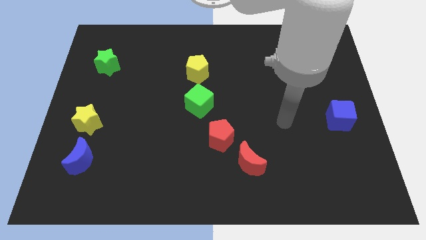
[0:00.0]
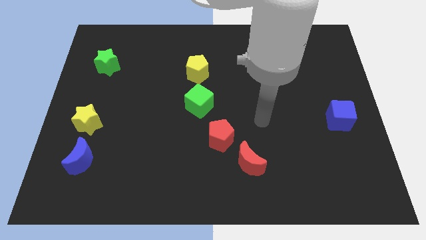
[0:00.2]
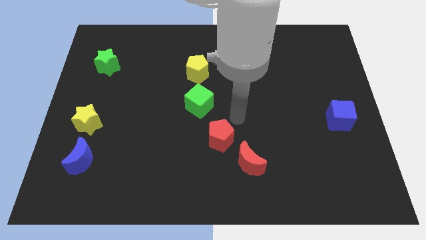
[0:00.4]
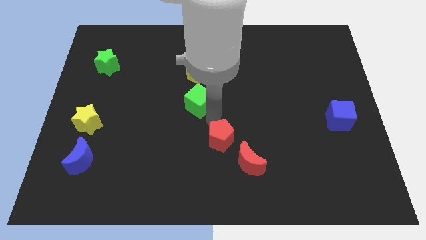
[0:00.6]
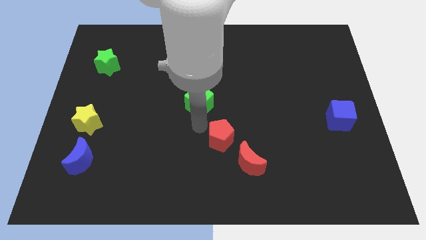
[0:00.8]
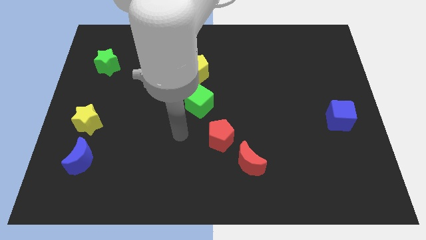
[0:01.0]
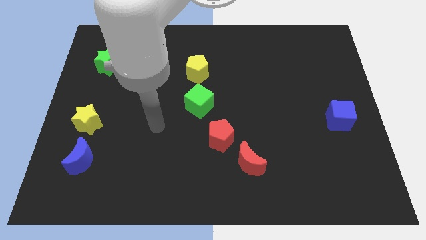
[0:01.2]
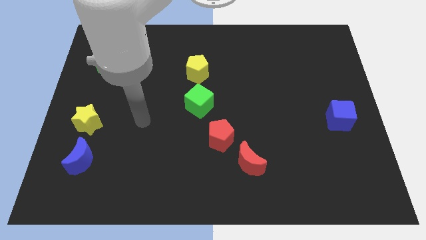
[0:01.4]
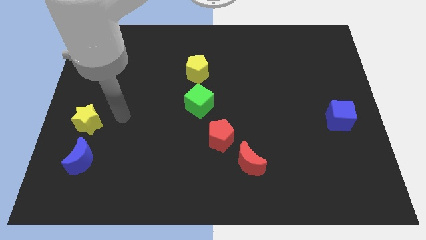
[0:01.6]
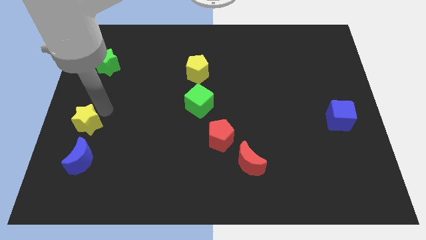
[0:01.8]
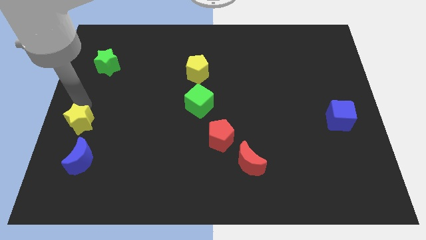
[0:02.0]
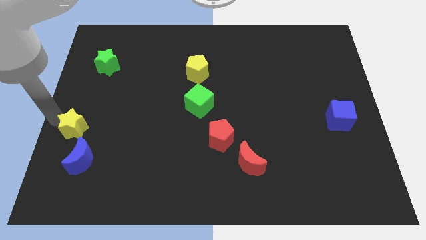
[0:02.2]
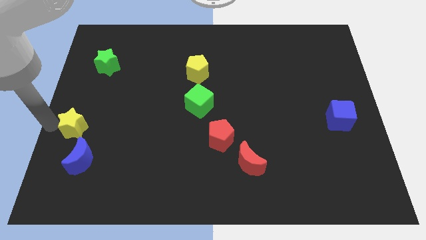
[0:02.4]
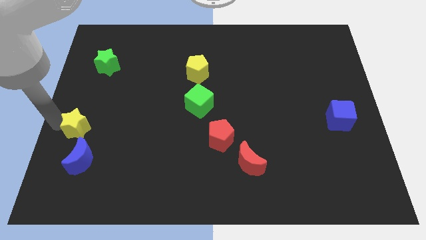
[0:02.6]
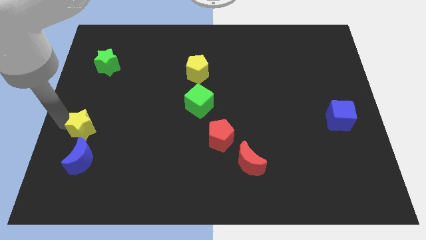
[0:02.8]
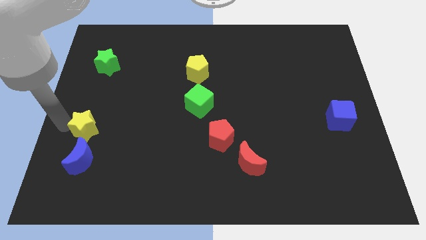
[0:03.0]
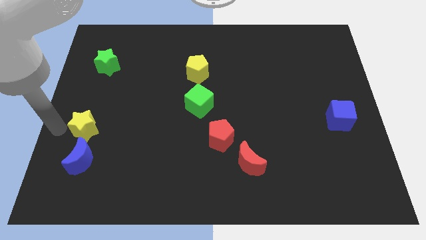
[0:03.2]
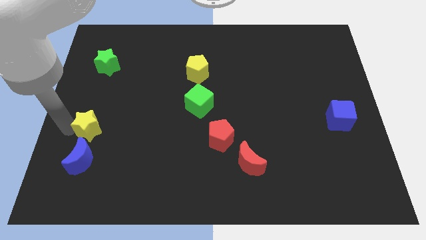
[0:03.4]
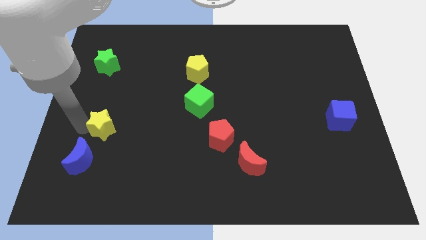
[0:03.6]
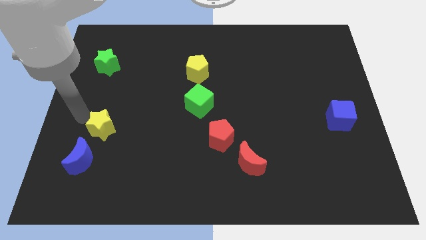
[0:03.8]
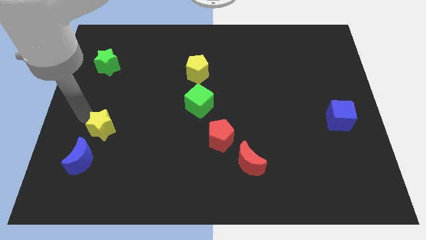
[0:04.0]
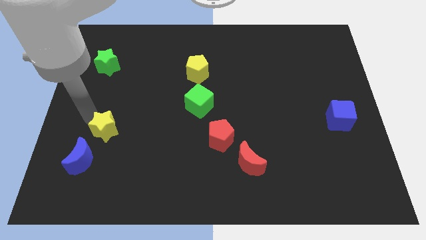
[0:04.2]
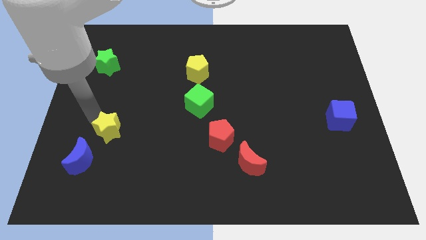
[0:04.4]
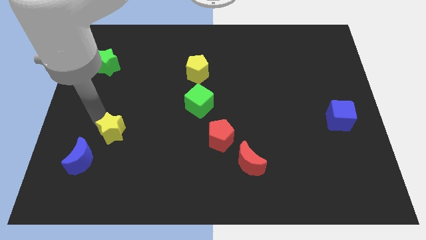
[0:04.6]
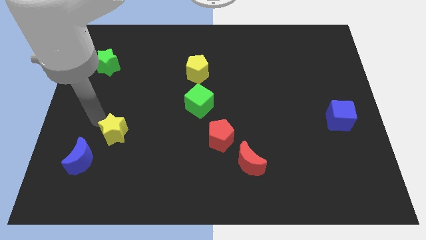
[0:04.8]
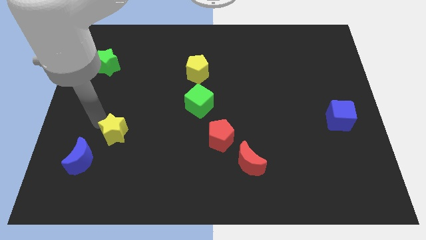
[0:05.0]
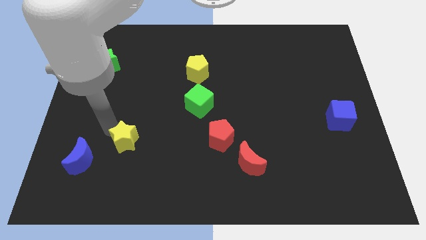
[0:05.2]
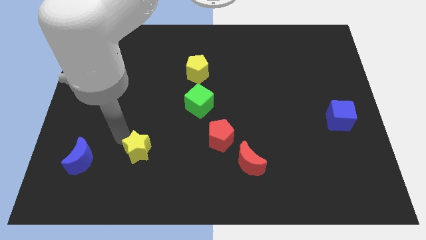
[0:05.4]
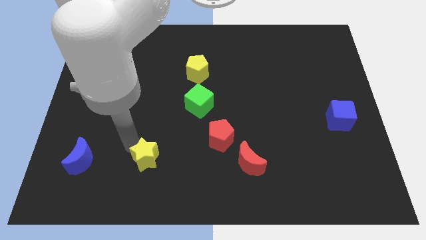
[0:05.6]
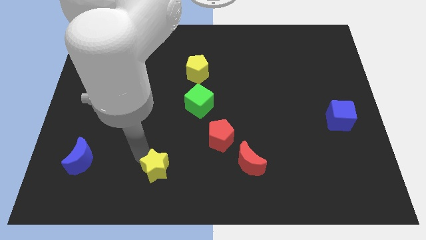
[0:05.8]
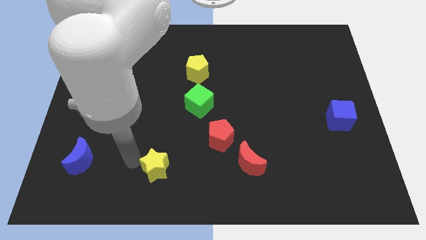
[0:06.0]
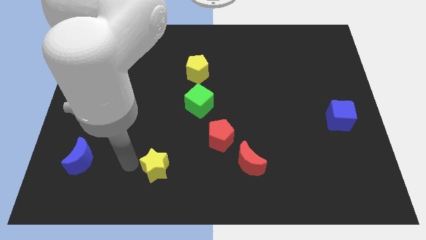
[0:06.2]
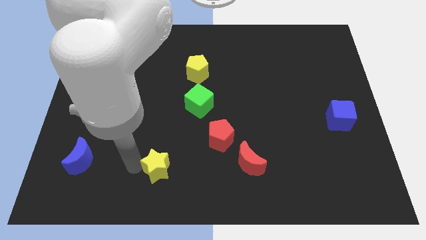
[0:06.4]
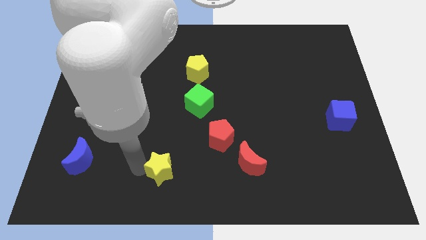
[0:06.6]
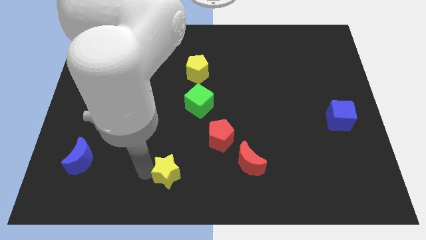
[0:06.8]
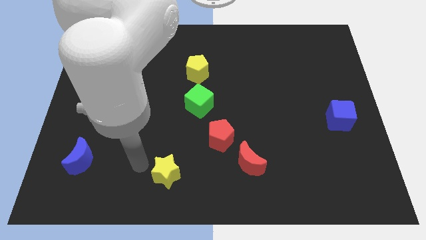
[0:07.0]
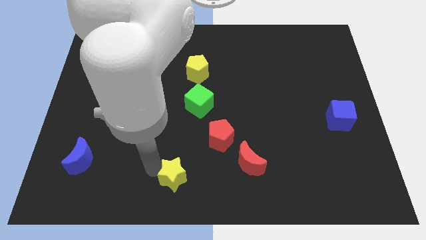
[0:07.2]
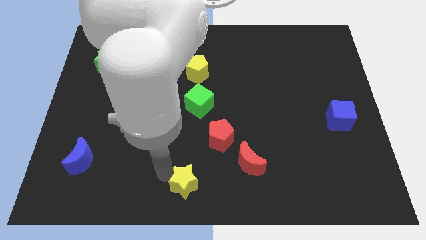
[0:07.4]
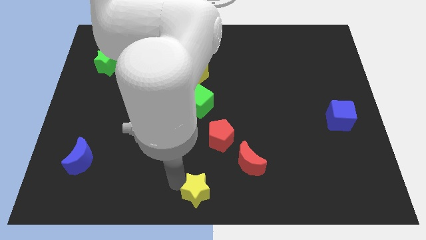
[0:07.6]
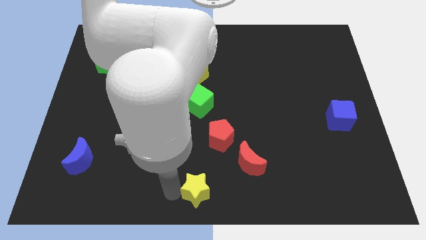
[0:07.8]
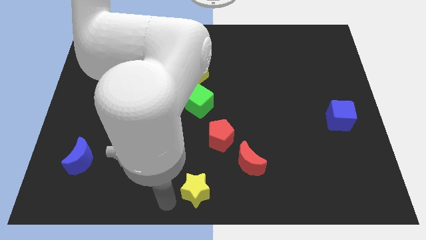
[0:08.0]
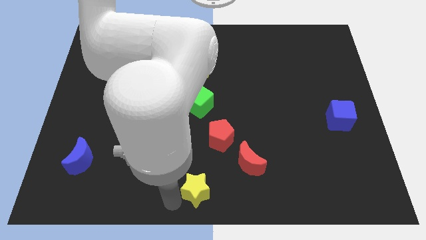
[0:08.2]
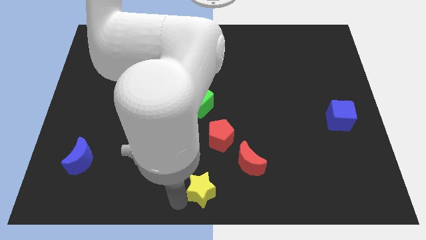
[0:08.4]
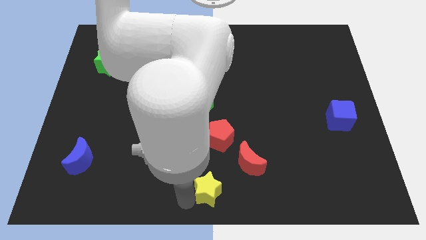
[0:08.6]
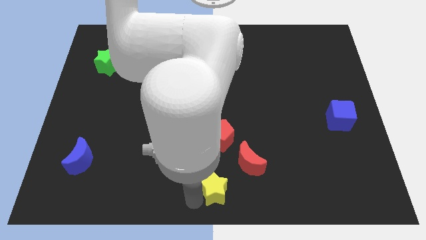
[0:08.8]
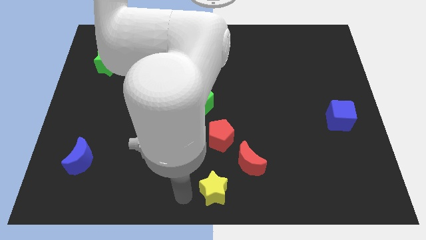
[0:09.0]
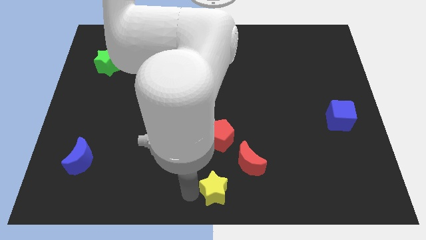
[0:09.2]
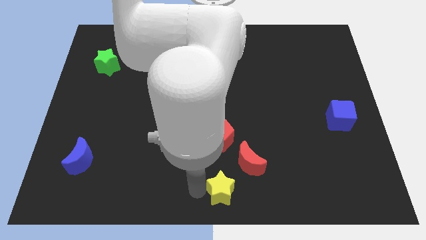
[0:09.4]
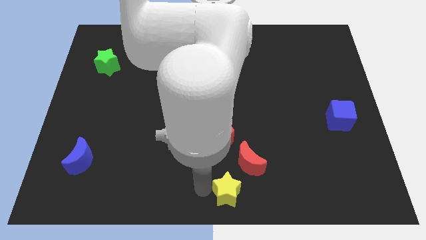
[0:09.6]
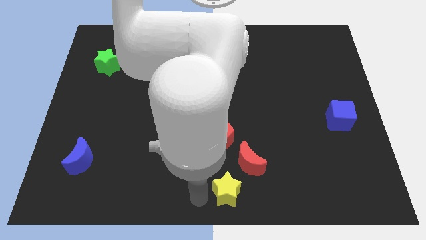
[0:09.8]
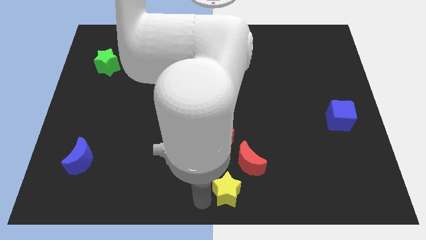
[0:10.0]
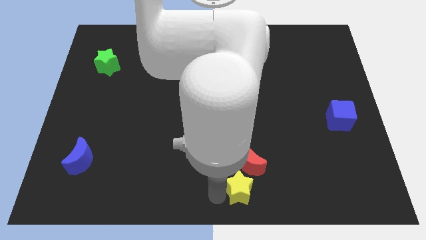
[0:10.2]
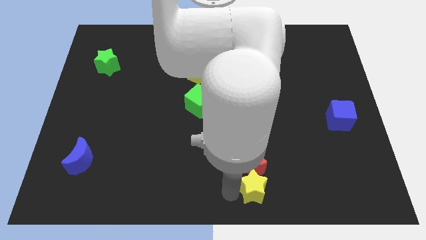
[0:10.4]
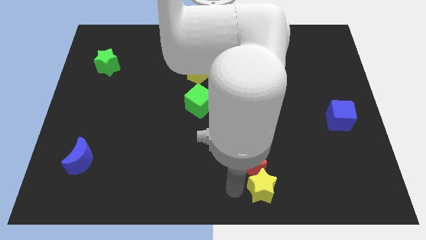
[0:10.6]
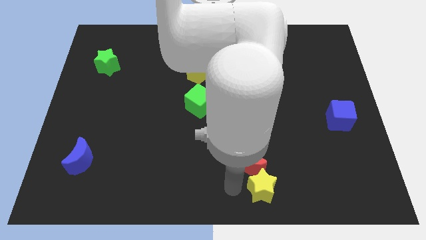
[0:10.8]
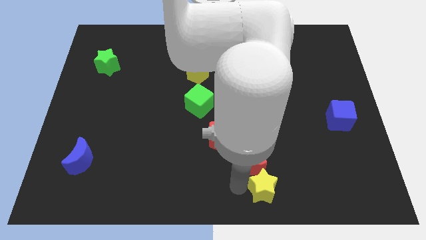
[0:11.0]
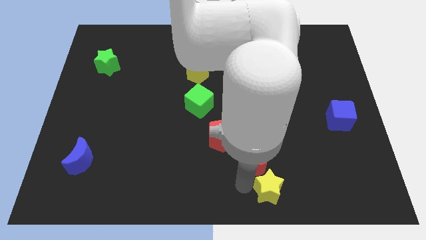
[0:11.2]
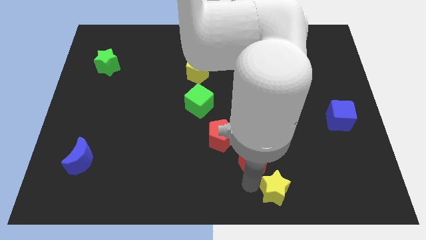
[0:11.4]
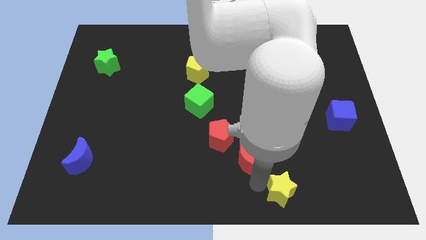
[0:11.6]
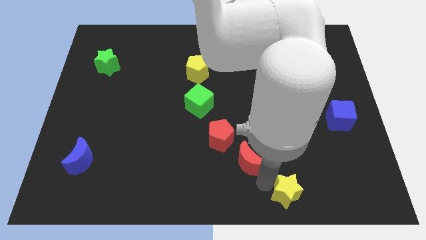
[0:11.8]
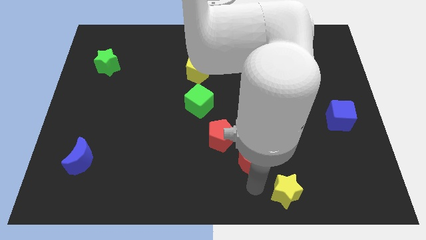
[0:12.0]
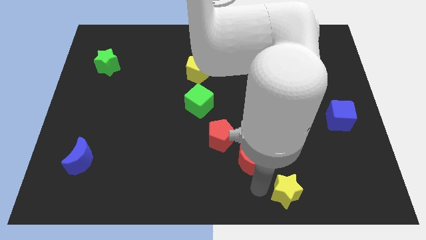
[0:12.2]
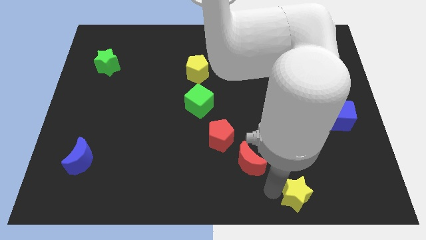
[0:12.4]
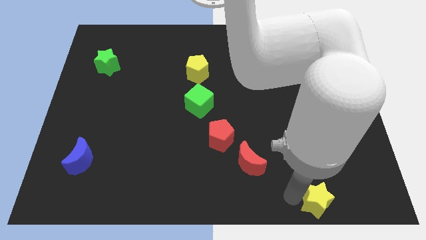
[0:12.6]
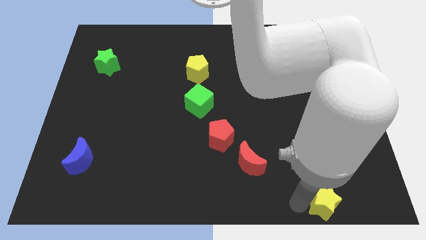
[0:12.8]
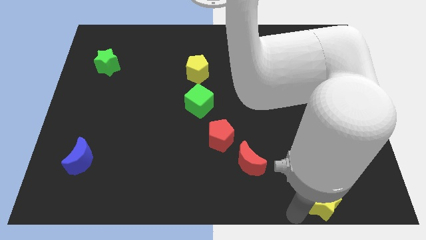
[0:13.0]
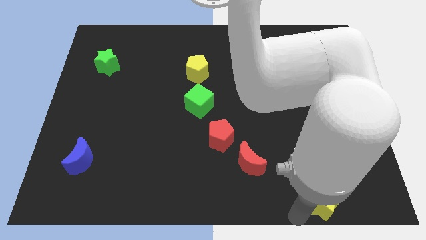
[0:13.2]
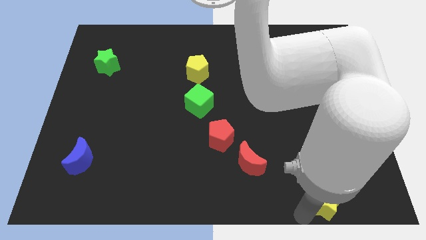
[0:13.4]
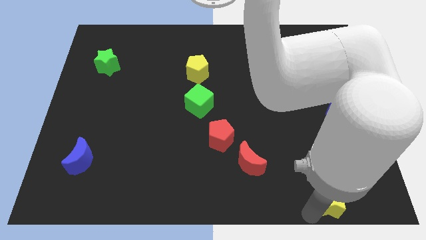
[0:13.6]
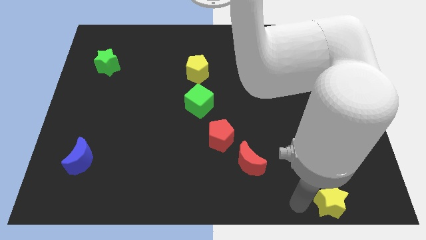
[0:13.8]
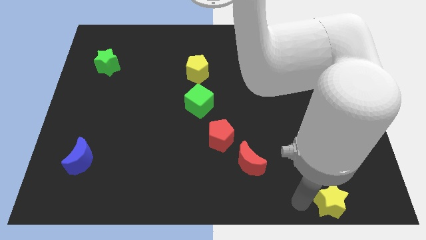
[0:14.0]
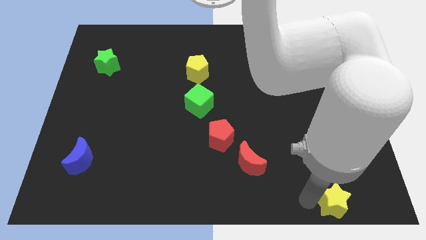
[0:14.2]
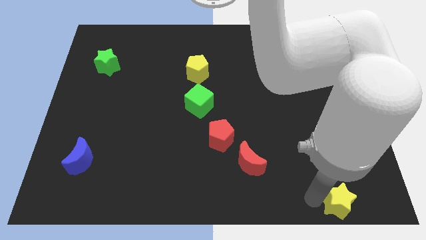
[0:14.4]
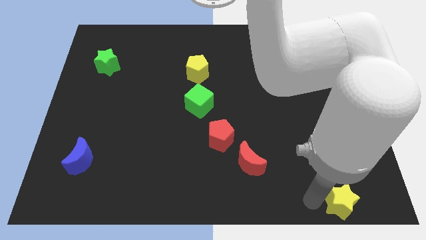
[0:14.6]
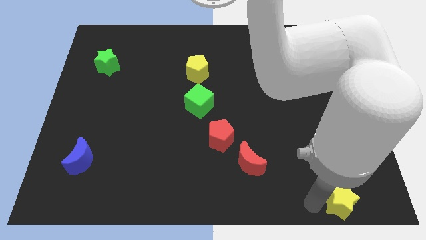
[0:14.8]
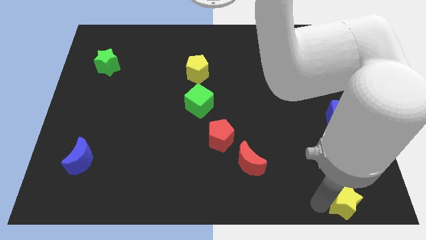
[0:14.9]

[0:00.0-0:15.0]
slide the yellow star to the lower right corner
